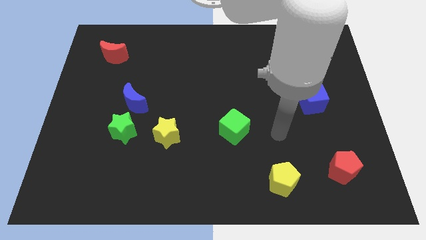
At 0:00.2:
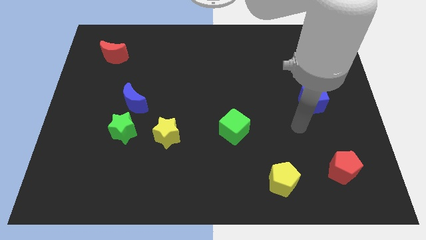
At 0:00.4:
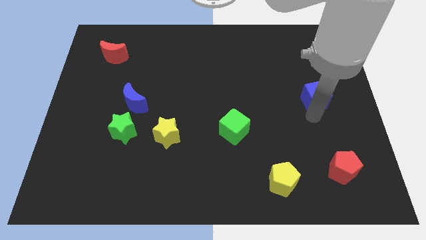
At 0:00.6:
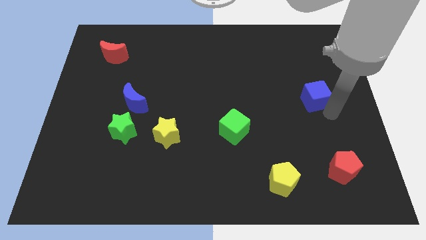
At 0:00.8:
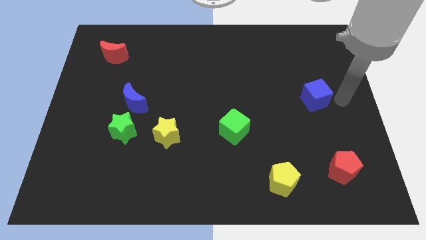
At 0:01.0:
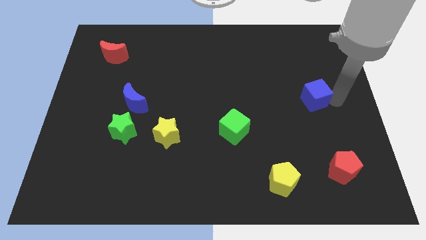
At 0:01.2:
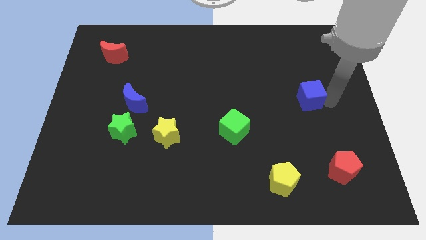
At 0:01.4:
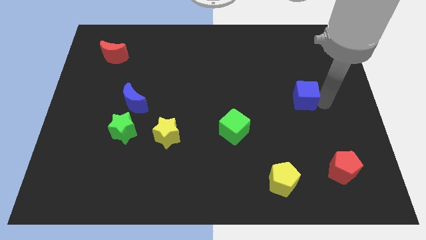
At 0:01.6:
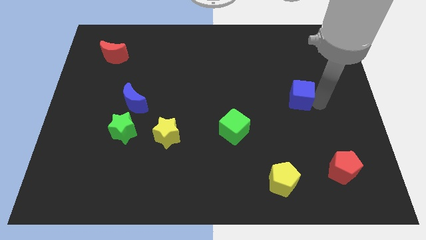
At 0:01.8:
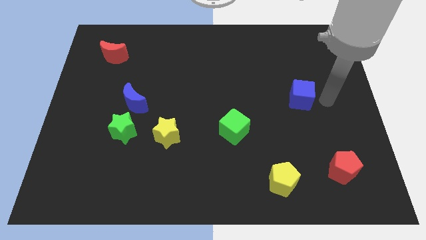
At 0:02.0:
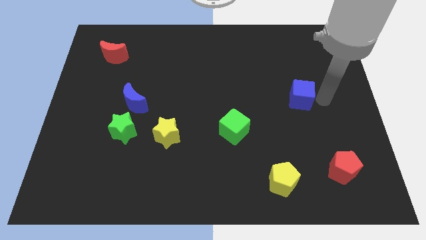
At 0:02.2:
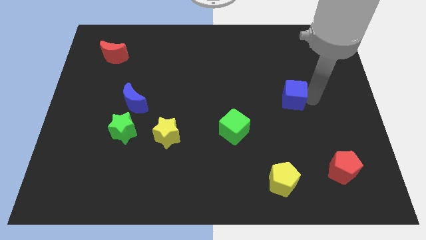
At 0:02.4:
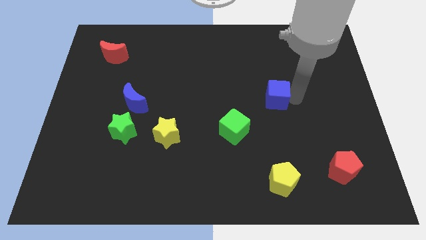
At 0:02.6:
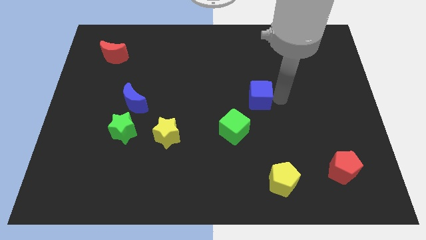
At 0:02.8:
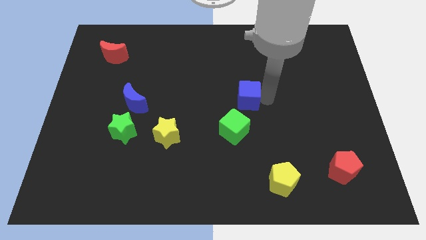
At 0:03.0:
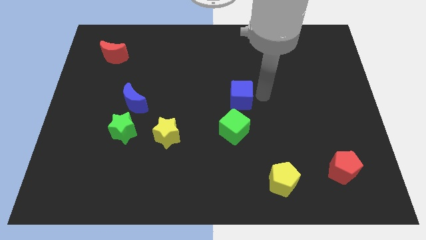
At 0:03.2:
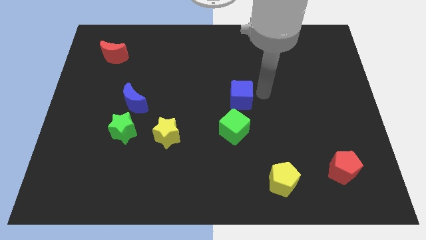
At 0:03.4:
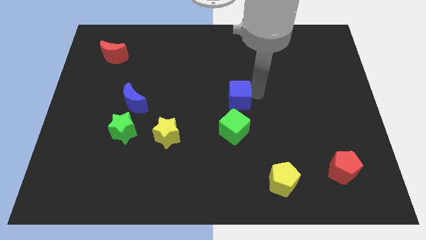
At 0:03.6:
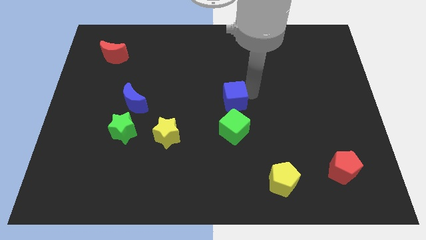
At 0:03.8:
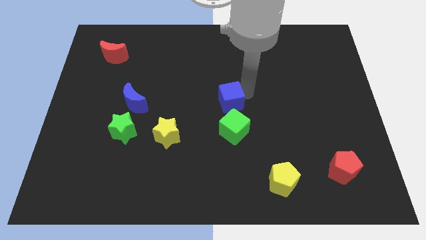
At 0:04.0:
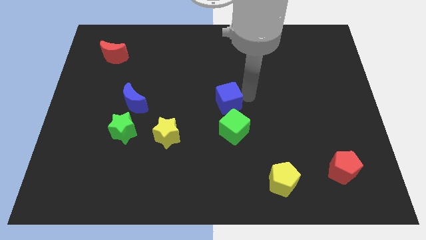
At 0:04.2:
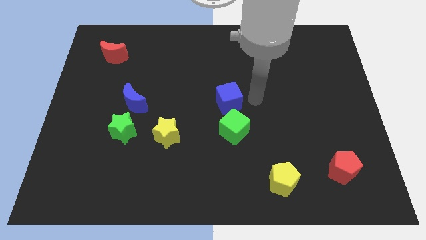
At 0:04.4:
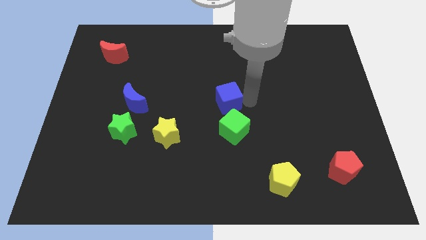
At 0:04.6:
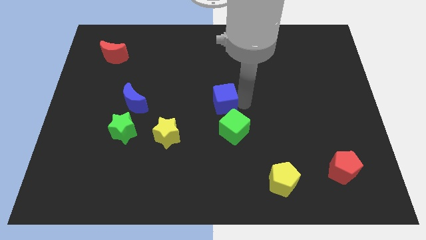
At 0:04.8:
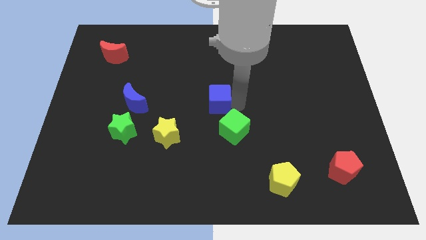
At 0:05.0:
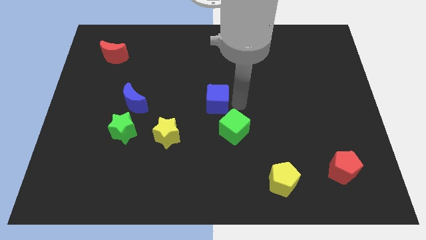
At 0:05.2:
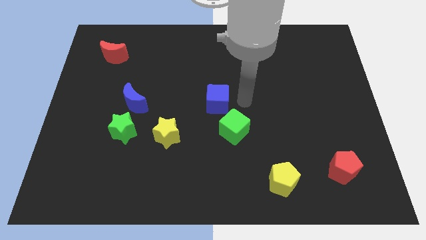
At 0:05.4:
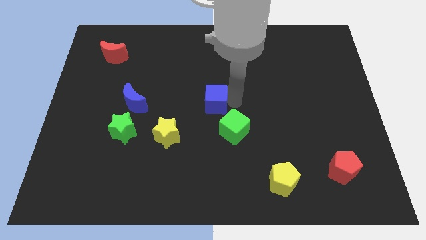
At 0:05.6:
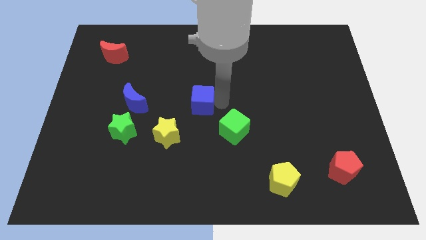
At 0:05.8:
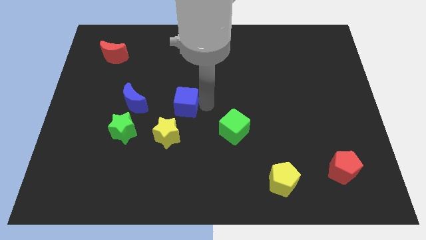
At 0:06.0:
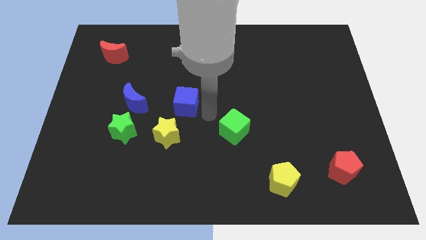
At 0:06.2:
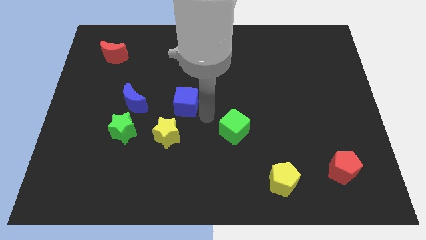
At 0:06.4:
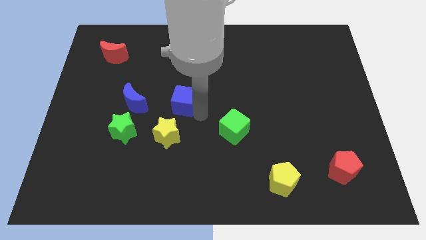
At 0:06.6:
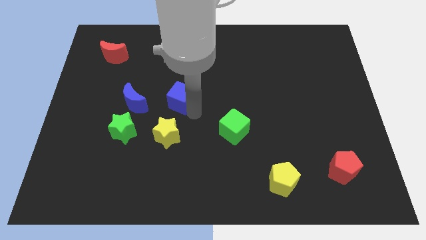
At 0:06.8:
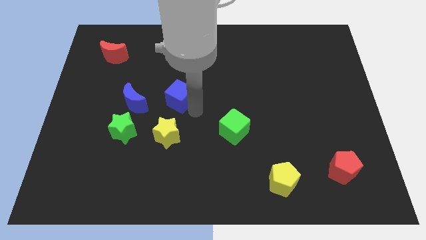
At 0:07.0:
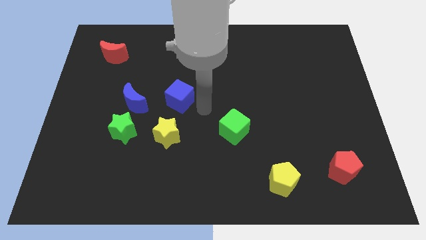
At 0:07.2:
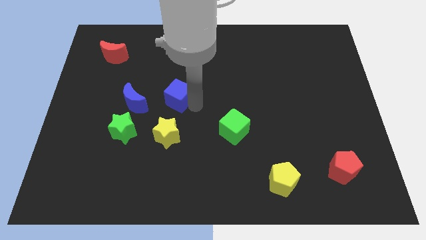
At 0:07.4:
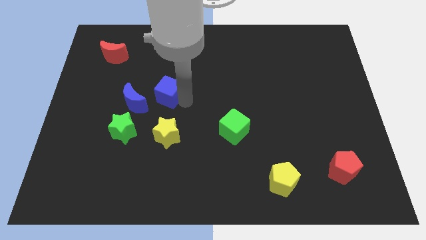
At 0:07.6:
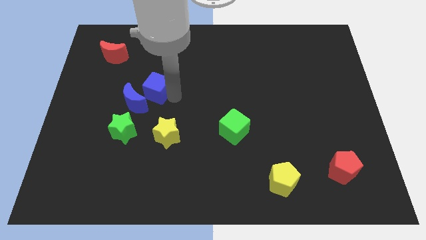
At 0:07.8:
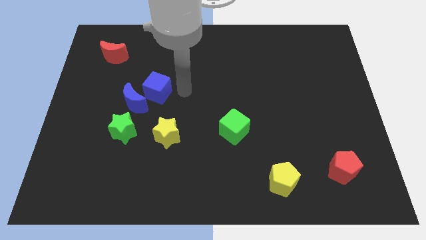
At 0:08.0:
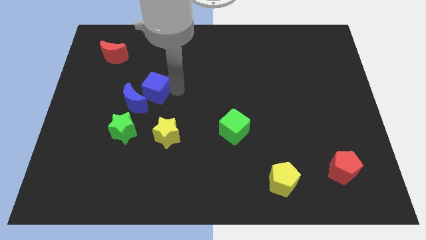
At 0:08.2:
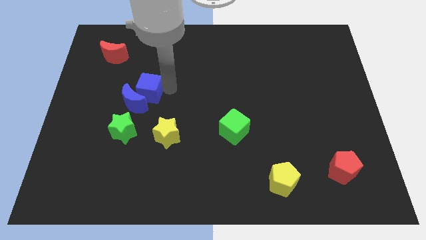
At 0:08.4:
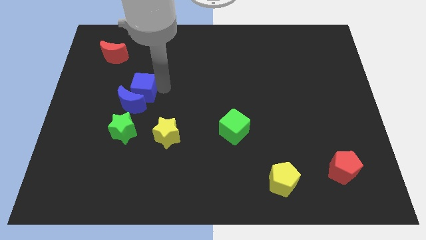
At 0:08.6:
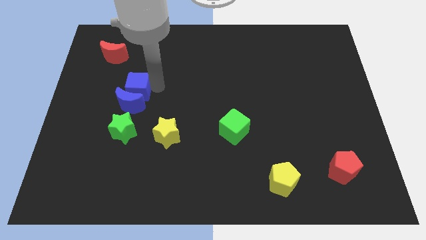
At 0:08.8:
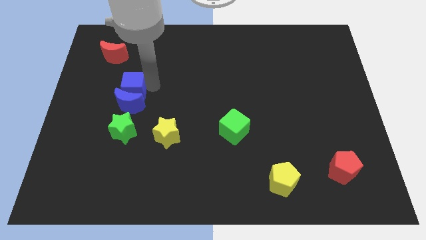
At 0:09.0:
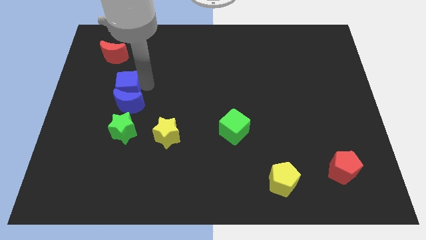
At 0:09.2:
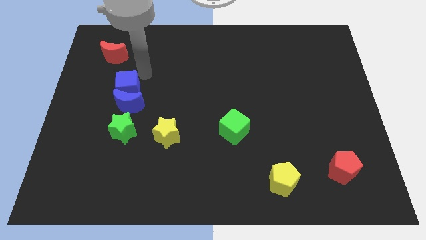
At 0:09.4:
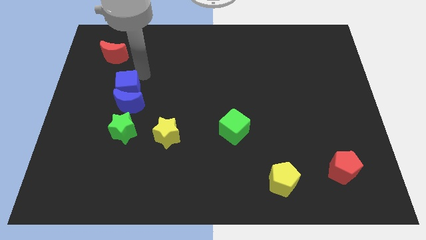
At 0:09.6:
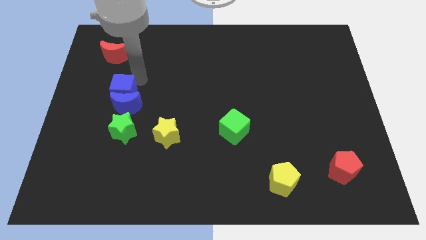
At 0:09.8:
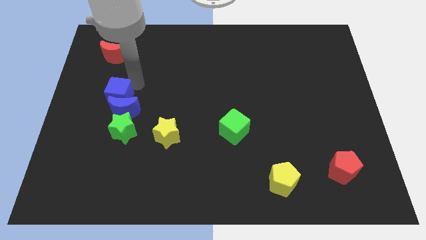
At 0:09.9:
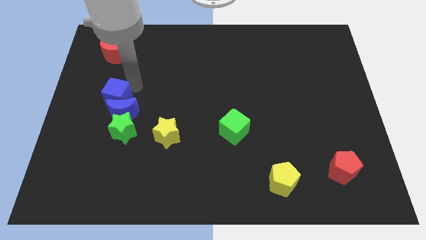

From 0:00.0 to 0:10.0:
move the blue cube diagonally up and to the left of the green star

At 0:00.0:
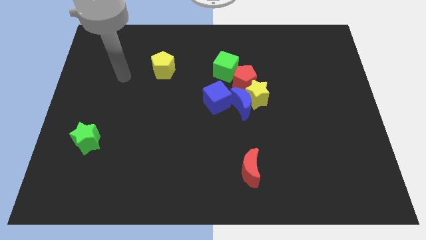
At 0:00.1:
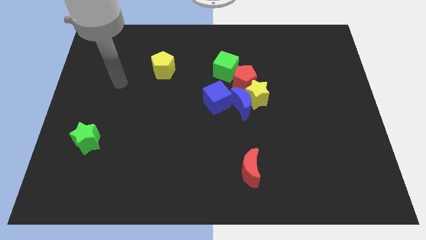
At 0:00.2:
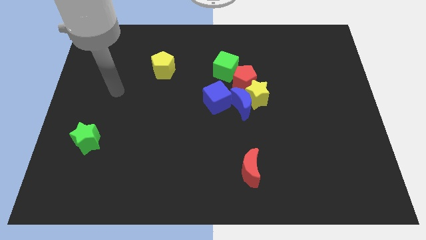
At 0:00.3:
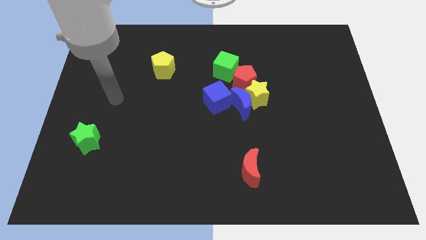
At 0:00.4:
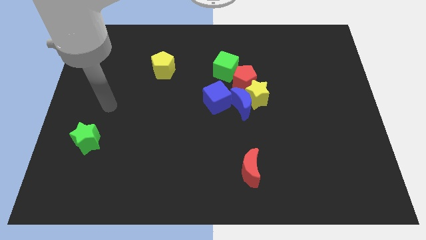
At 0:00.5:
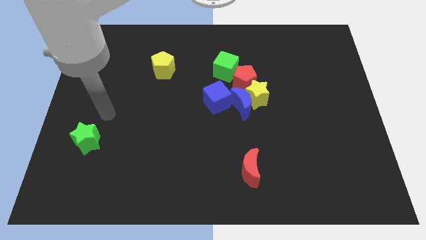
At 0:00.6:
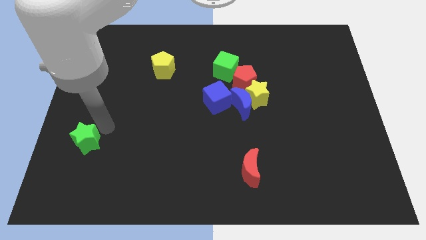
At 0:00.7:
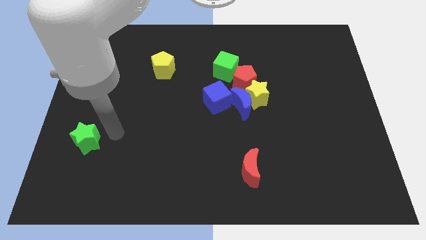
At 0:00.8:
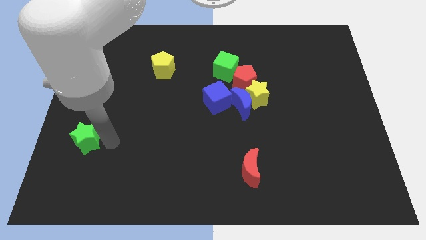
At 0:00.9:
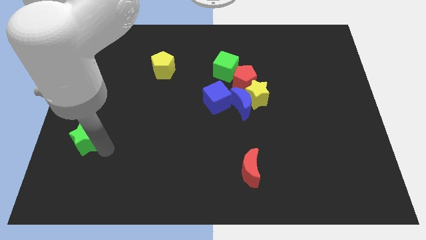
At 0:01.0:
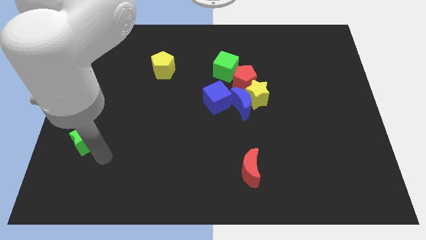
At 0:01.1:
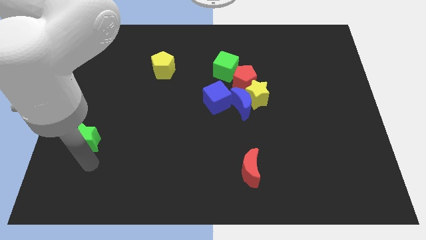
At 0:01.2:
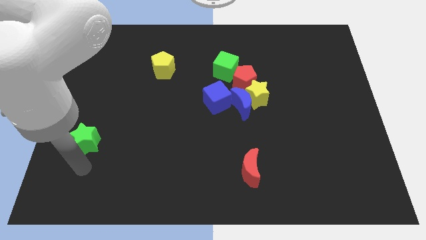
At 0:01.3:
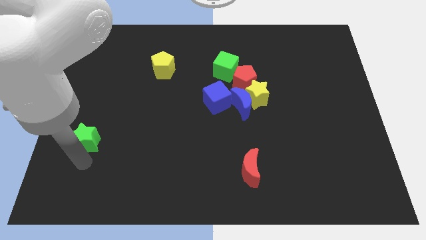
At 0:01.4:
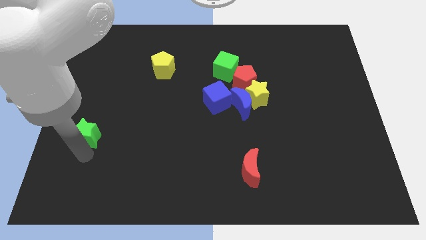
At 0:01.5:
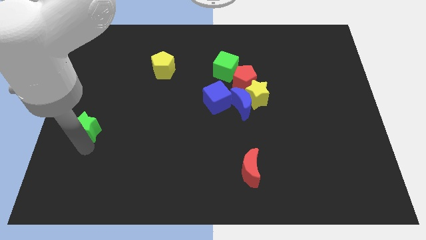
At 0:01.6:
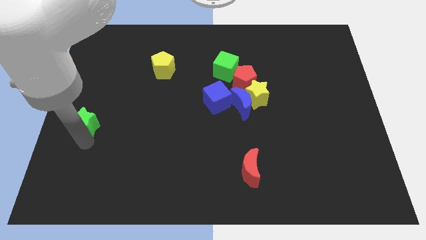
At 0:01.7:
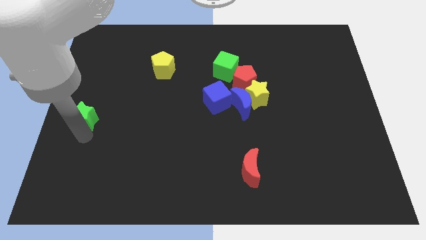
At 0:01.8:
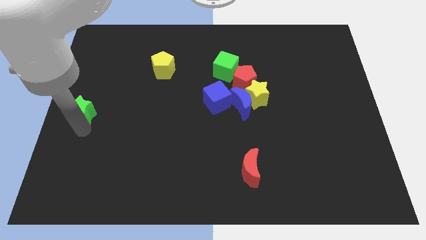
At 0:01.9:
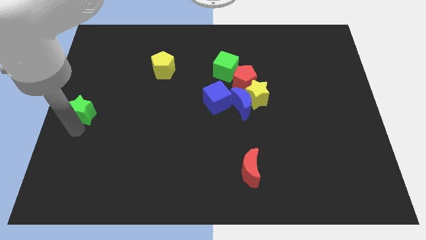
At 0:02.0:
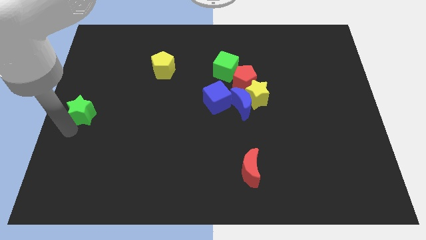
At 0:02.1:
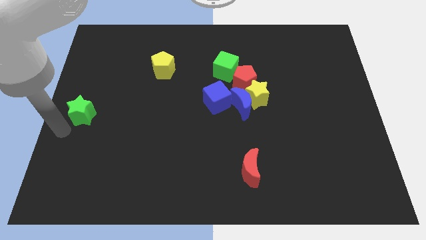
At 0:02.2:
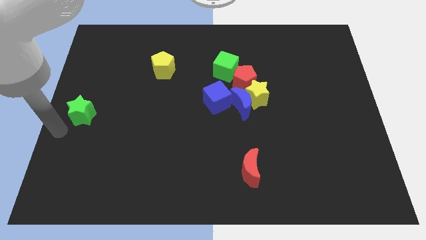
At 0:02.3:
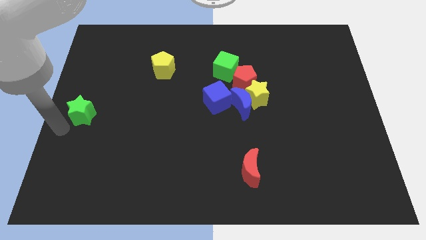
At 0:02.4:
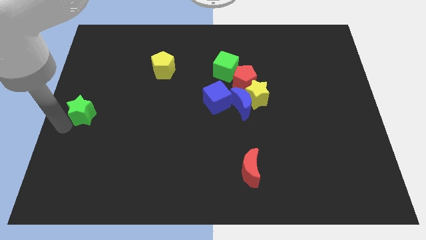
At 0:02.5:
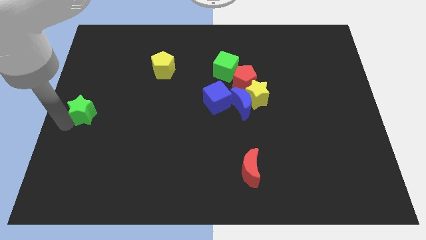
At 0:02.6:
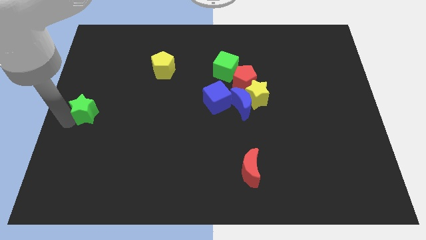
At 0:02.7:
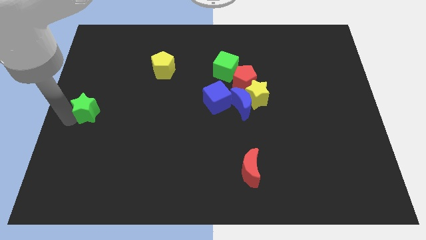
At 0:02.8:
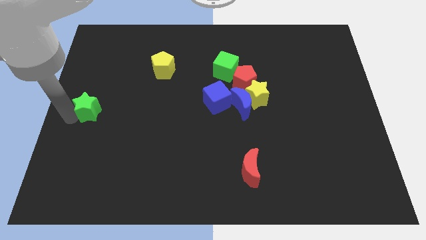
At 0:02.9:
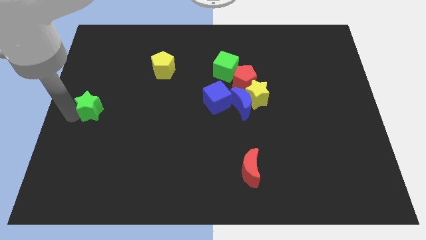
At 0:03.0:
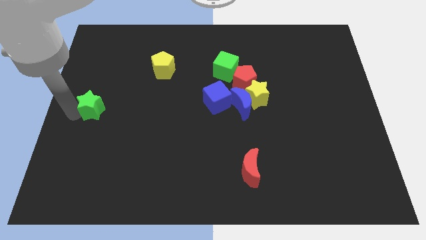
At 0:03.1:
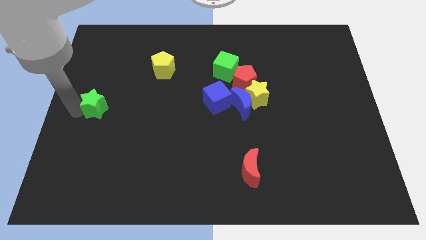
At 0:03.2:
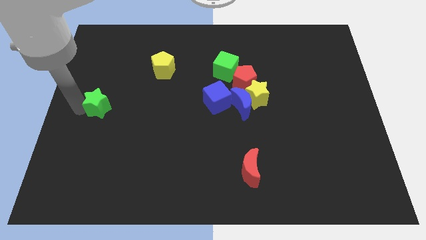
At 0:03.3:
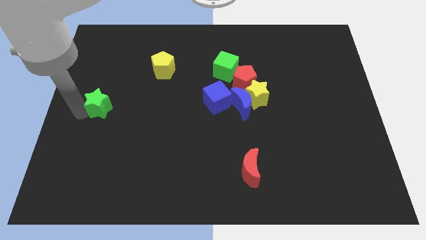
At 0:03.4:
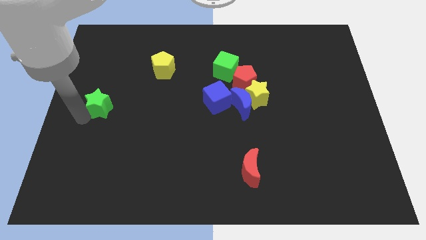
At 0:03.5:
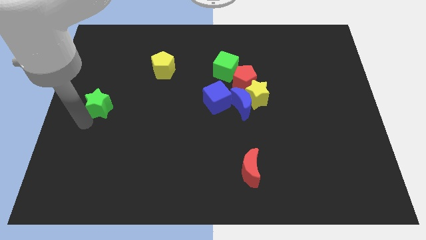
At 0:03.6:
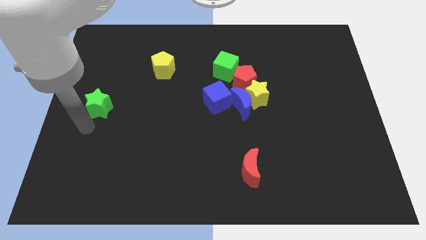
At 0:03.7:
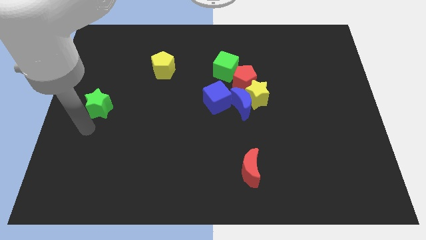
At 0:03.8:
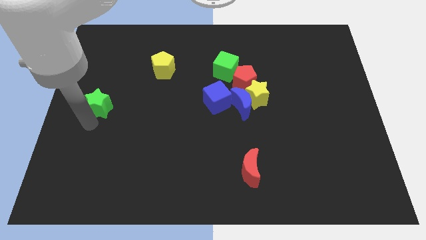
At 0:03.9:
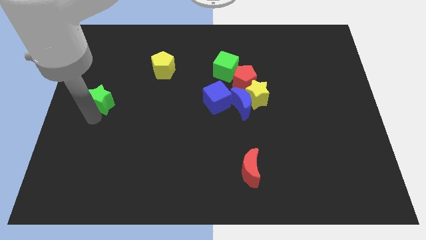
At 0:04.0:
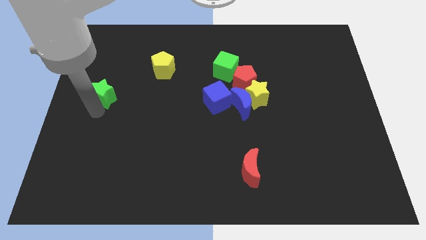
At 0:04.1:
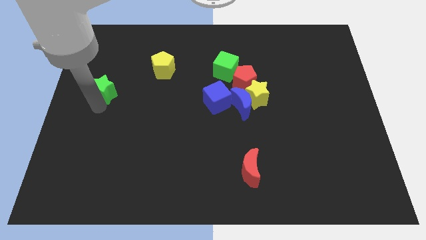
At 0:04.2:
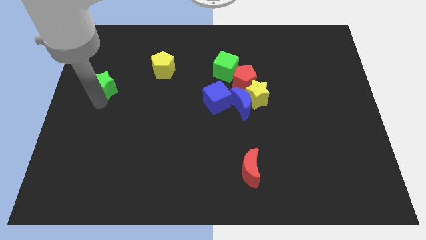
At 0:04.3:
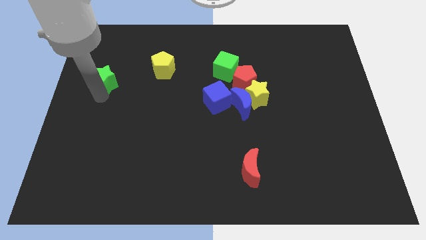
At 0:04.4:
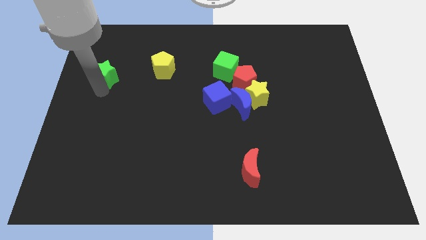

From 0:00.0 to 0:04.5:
push the green star just left of the yellow pentagon
